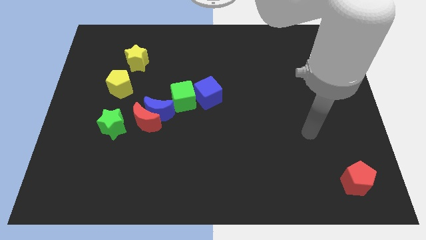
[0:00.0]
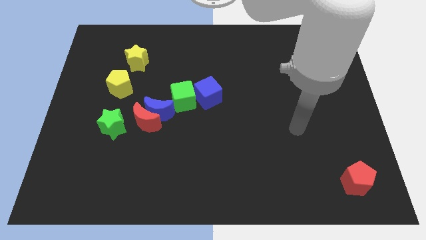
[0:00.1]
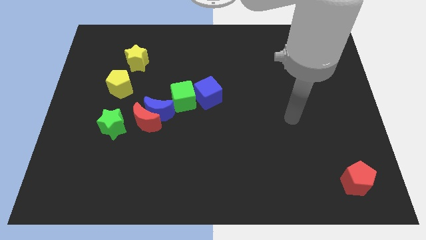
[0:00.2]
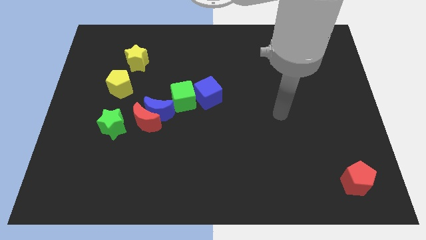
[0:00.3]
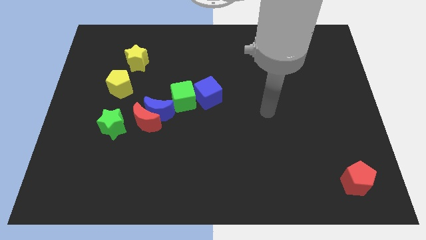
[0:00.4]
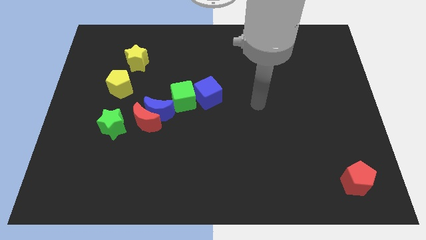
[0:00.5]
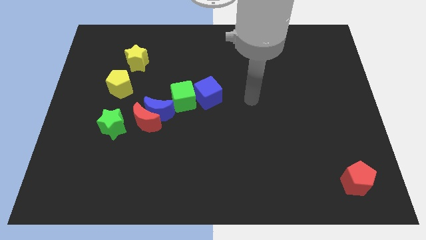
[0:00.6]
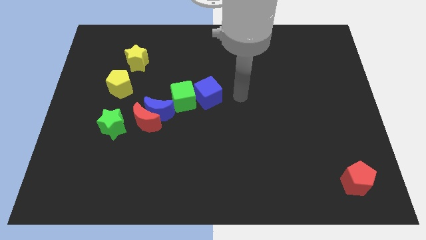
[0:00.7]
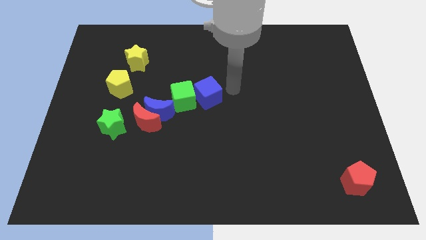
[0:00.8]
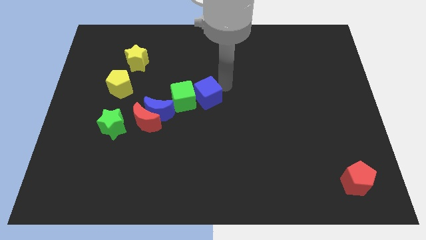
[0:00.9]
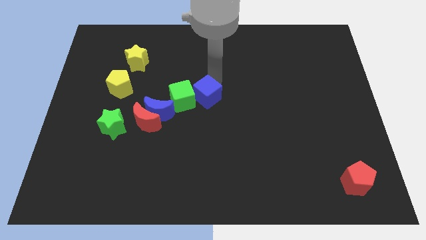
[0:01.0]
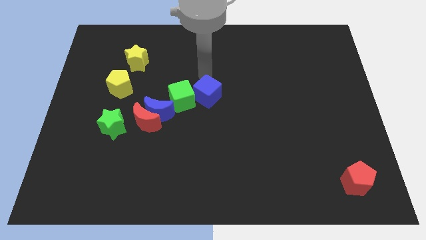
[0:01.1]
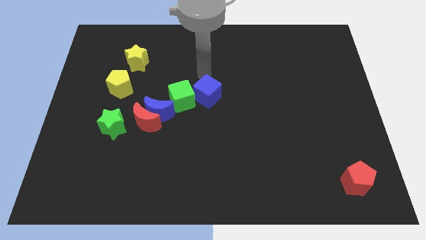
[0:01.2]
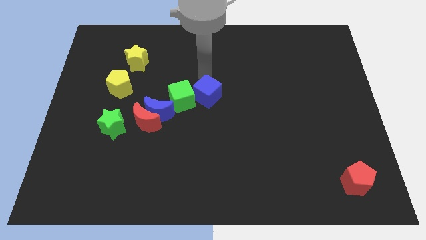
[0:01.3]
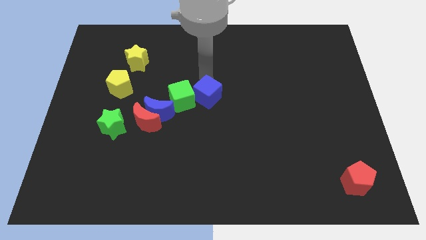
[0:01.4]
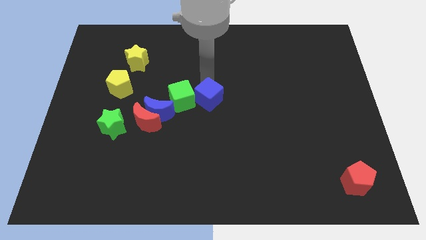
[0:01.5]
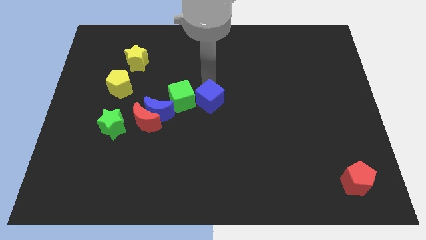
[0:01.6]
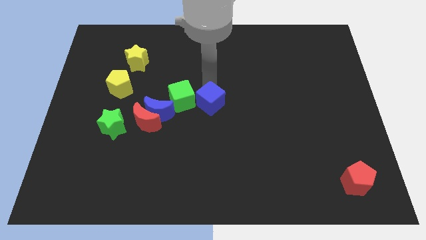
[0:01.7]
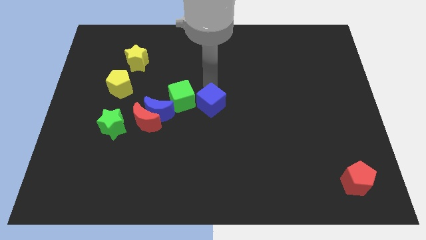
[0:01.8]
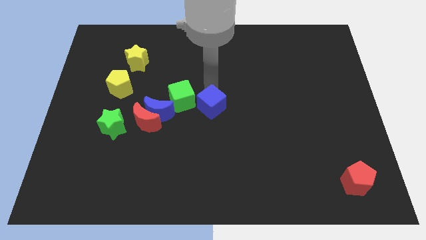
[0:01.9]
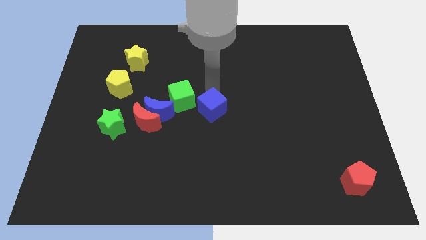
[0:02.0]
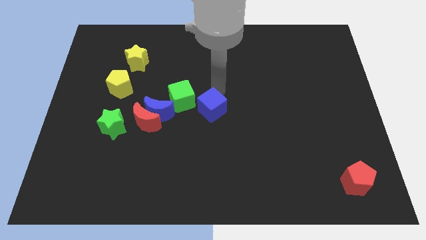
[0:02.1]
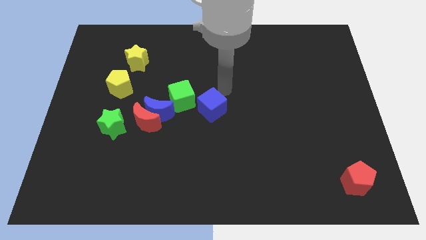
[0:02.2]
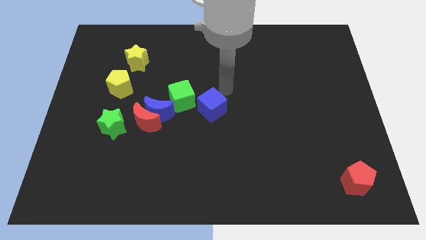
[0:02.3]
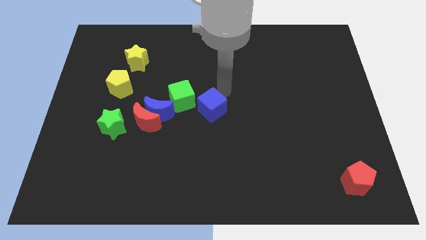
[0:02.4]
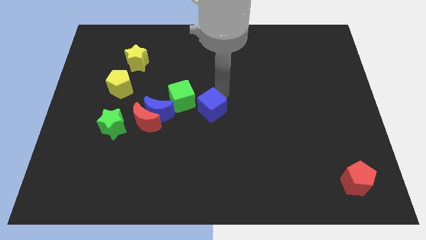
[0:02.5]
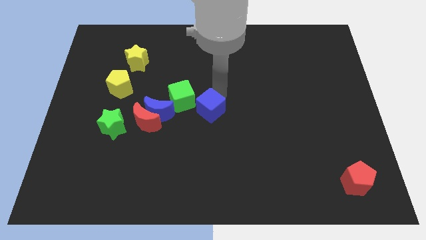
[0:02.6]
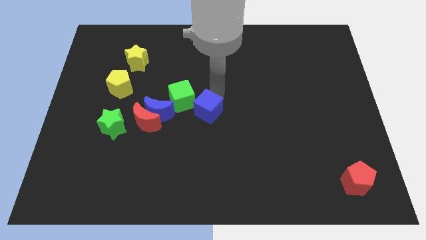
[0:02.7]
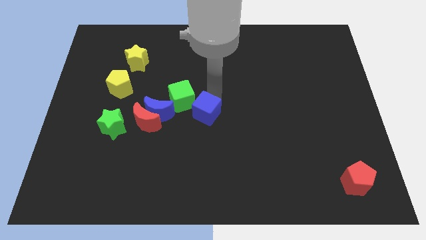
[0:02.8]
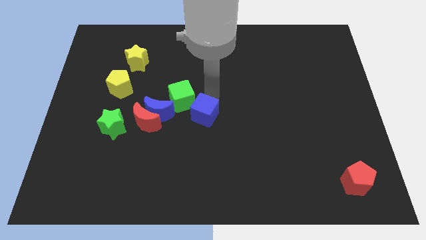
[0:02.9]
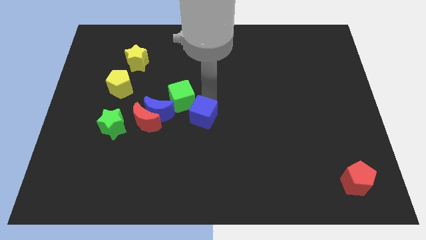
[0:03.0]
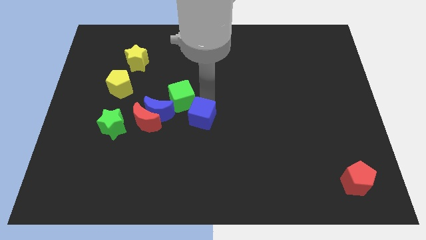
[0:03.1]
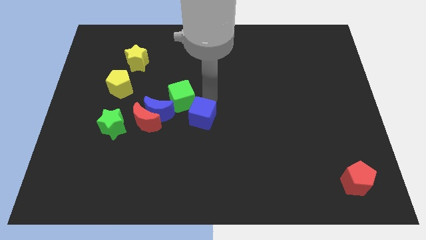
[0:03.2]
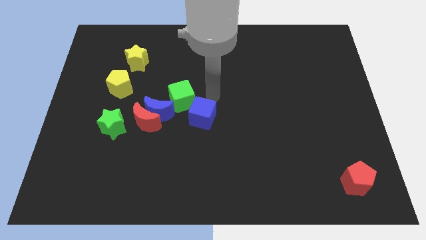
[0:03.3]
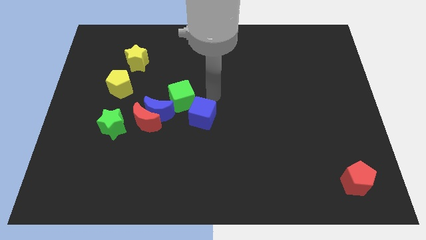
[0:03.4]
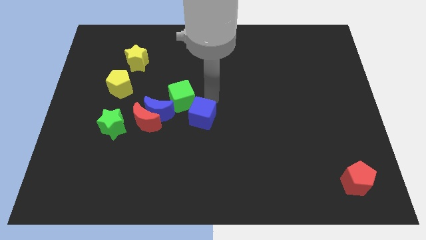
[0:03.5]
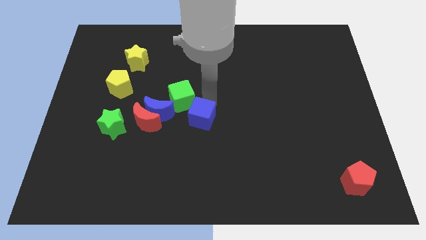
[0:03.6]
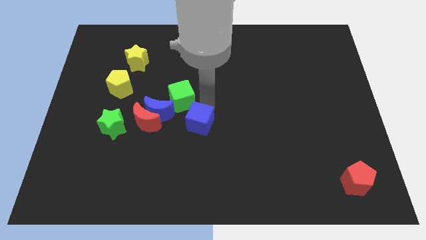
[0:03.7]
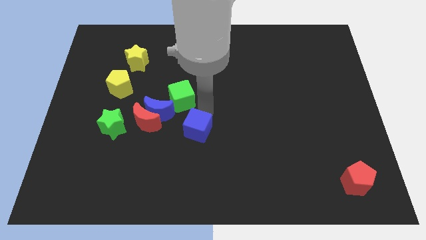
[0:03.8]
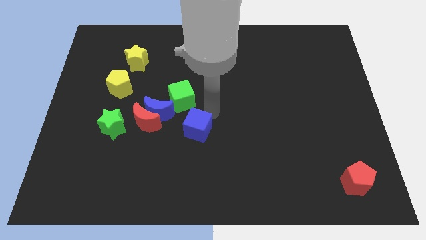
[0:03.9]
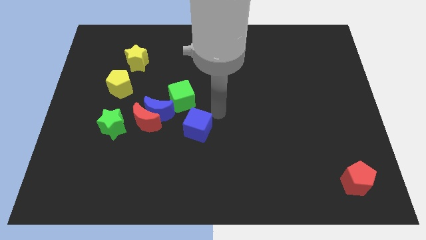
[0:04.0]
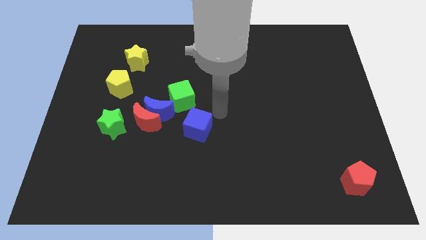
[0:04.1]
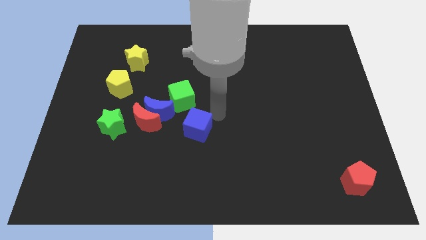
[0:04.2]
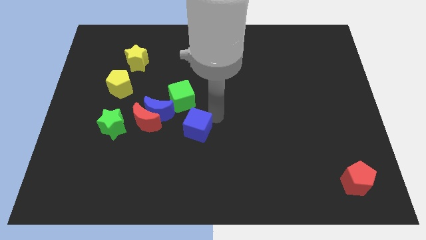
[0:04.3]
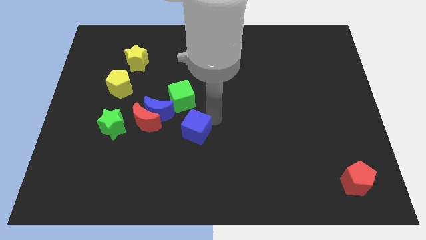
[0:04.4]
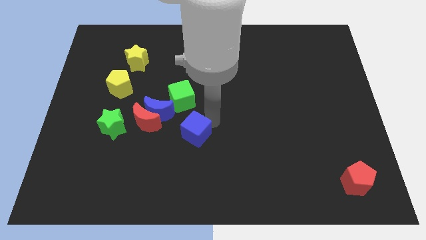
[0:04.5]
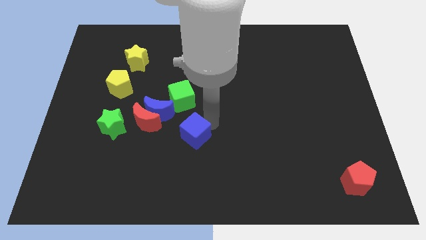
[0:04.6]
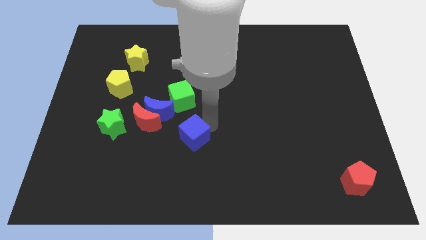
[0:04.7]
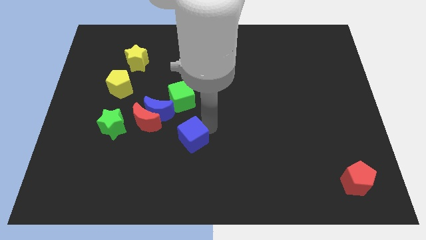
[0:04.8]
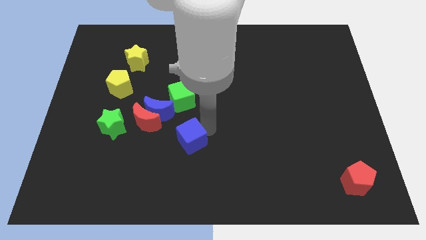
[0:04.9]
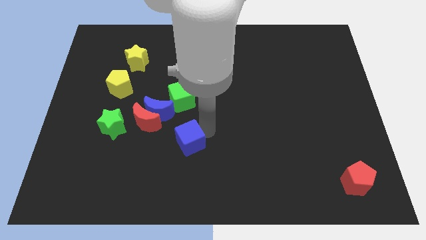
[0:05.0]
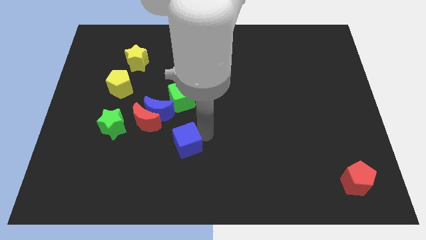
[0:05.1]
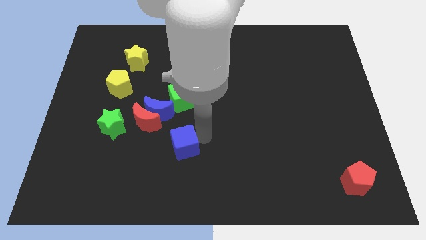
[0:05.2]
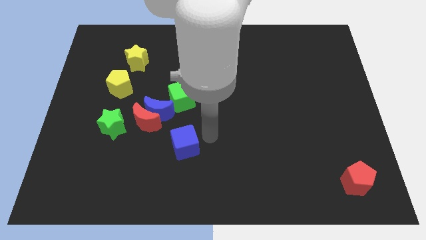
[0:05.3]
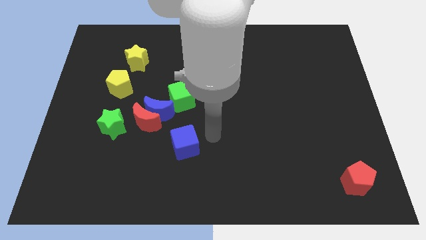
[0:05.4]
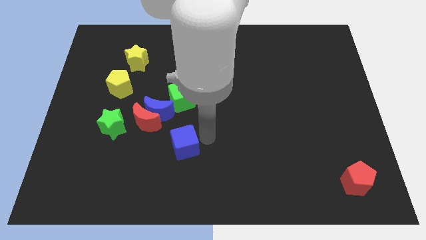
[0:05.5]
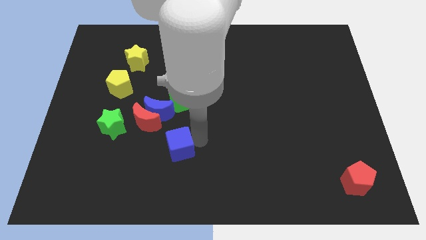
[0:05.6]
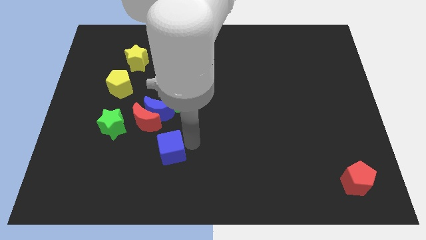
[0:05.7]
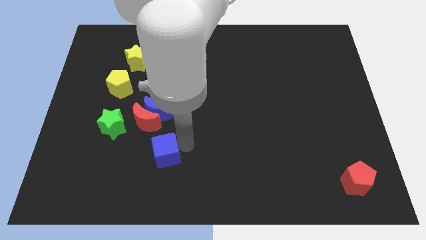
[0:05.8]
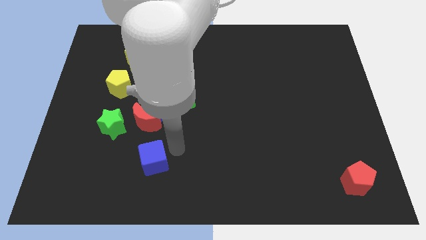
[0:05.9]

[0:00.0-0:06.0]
move the blue cube down and then to the left

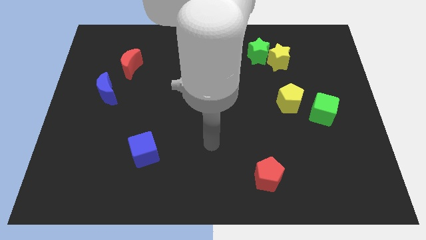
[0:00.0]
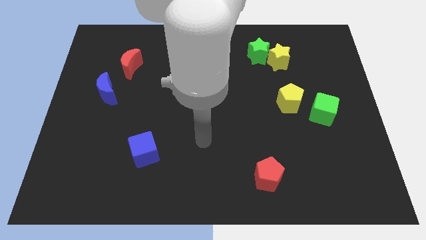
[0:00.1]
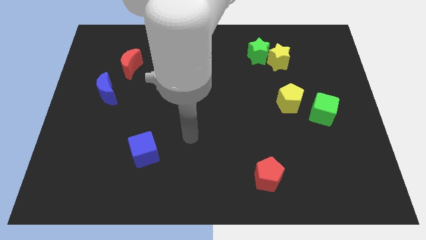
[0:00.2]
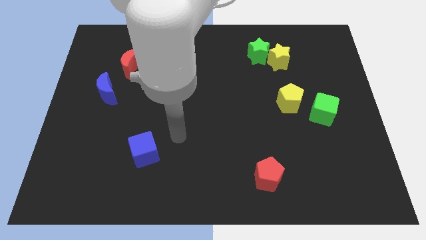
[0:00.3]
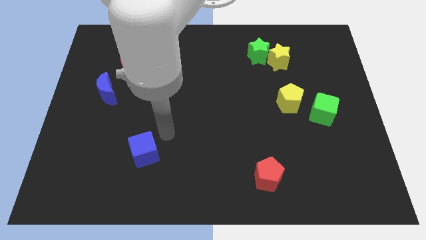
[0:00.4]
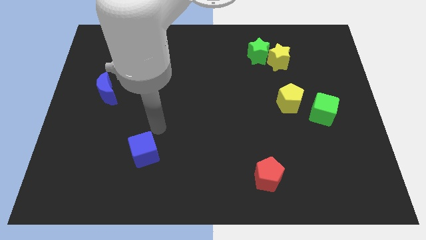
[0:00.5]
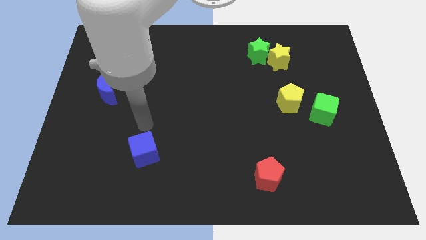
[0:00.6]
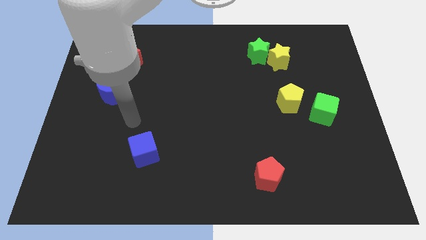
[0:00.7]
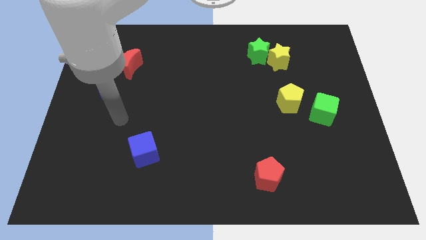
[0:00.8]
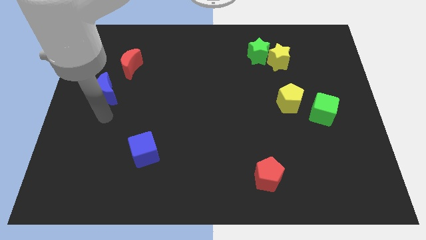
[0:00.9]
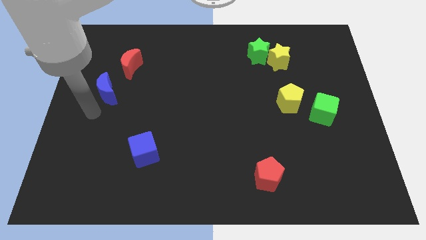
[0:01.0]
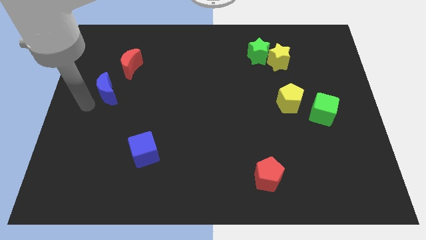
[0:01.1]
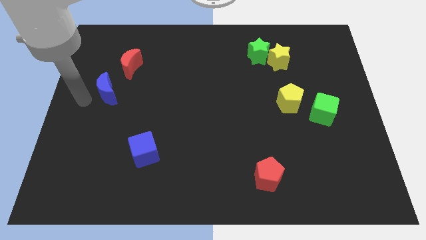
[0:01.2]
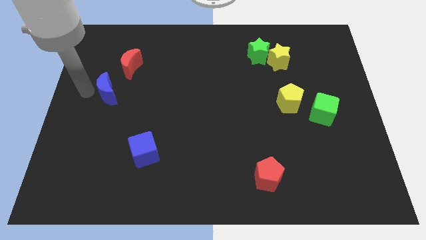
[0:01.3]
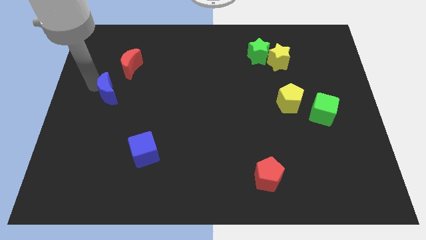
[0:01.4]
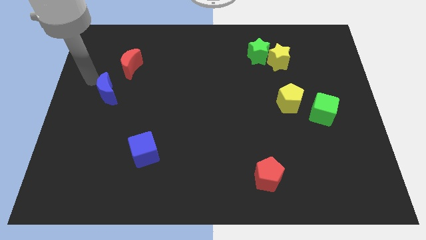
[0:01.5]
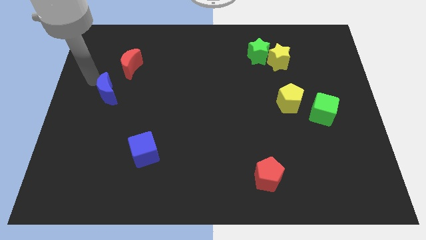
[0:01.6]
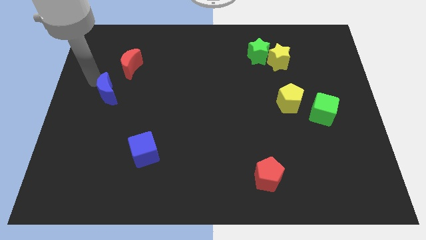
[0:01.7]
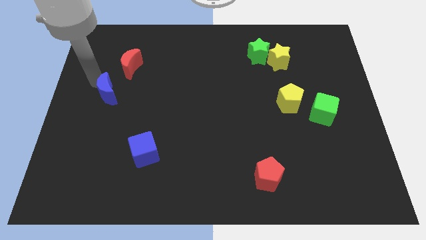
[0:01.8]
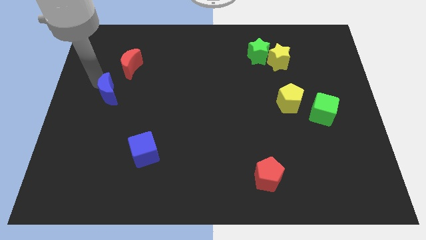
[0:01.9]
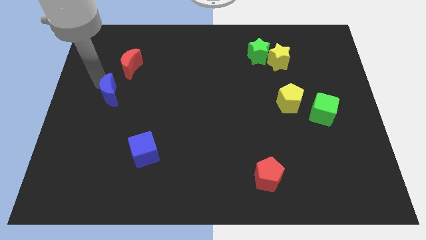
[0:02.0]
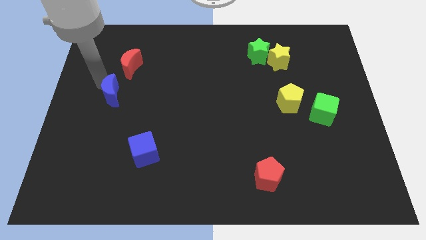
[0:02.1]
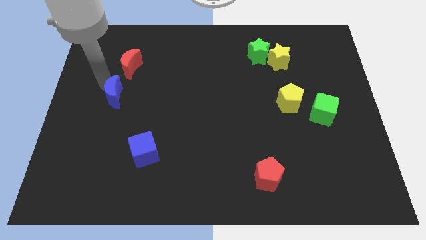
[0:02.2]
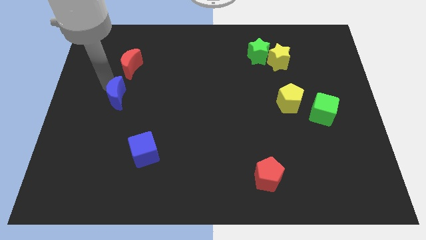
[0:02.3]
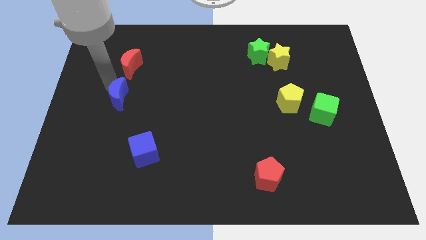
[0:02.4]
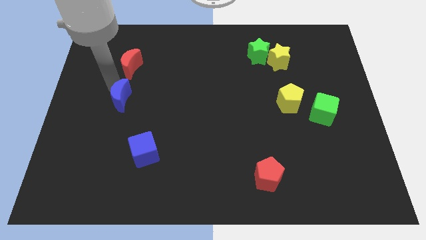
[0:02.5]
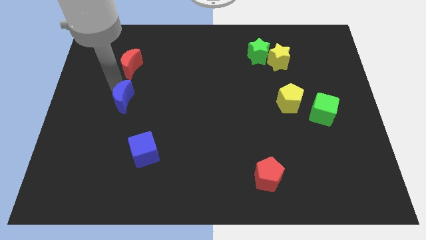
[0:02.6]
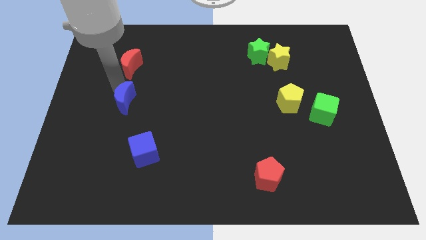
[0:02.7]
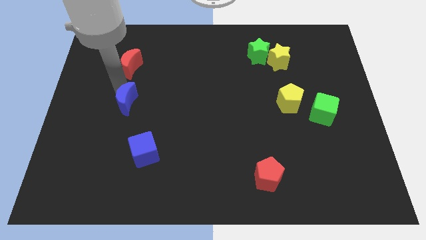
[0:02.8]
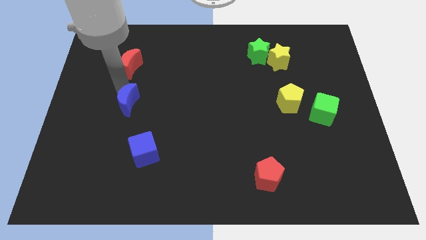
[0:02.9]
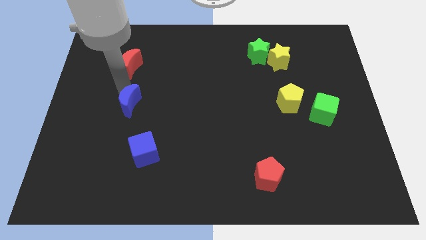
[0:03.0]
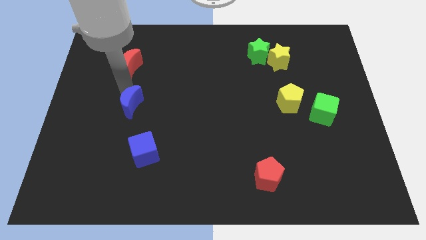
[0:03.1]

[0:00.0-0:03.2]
slide the blue moon somewhat down and to the right diagonally
